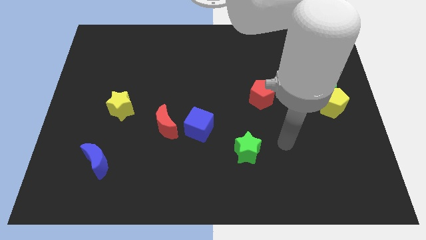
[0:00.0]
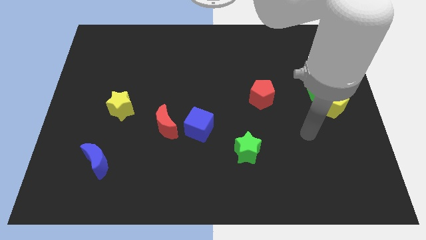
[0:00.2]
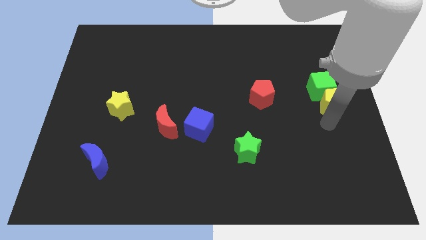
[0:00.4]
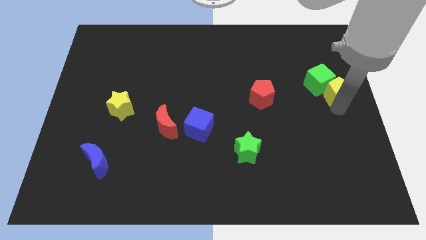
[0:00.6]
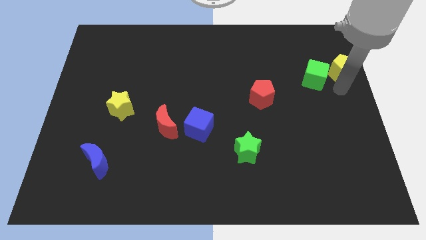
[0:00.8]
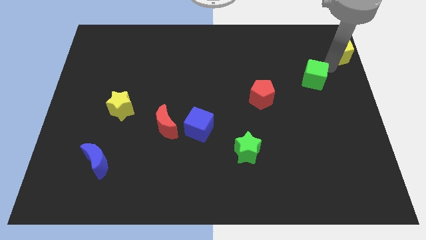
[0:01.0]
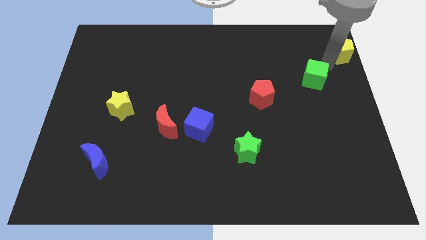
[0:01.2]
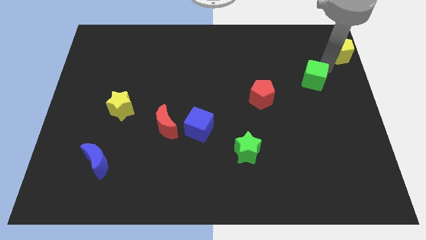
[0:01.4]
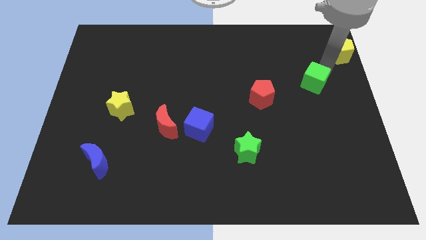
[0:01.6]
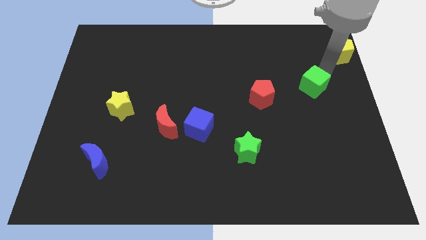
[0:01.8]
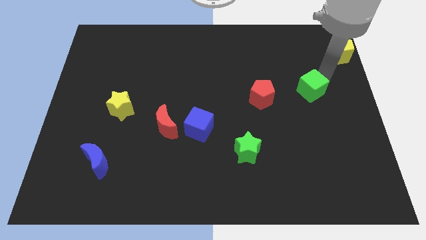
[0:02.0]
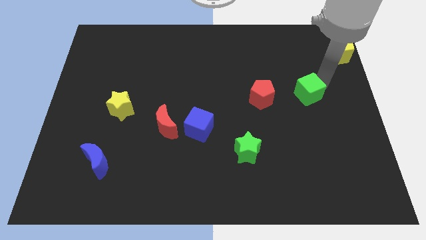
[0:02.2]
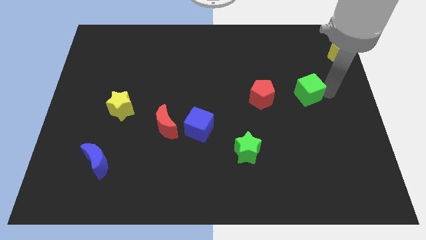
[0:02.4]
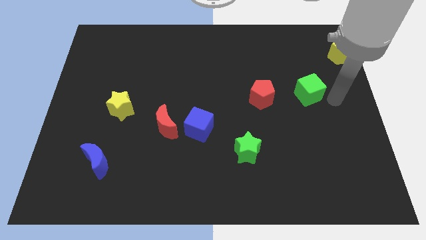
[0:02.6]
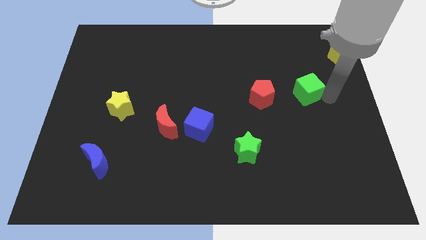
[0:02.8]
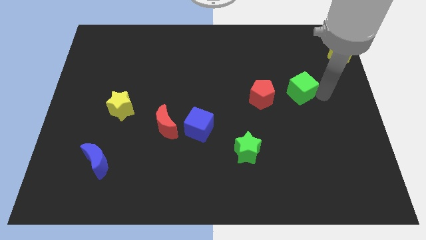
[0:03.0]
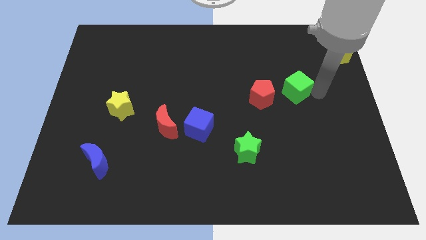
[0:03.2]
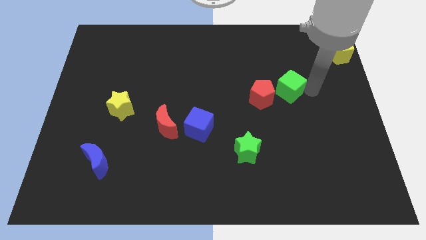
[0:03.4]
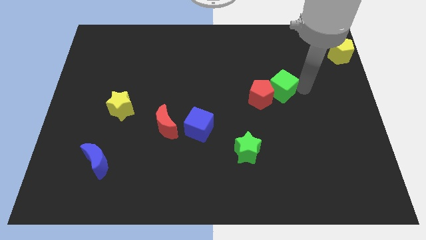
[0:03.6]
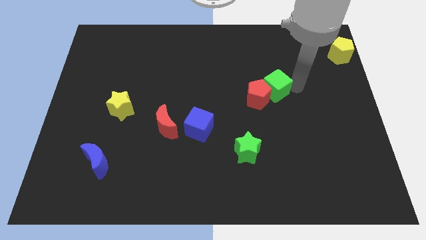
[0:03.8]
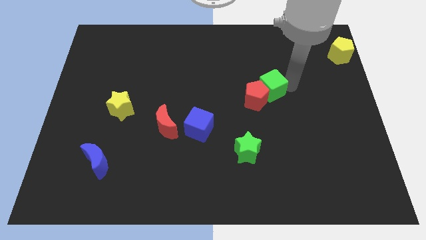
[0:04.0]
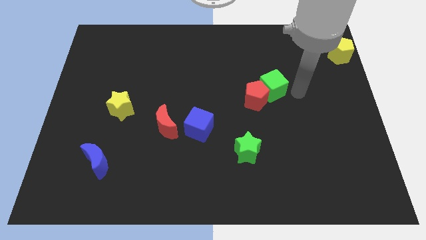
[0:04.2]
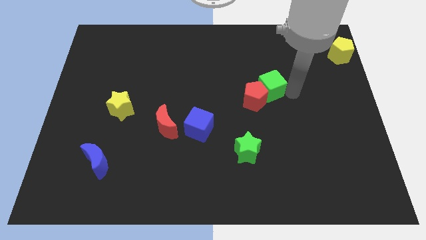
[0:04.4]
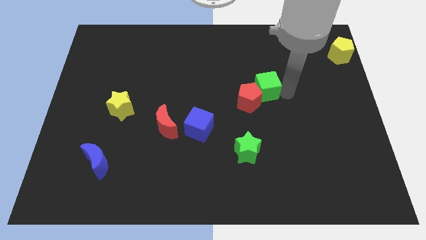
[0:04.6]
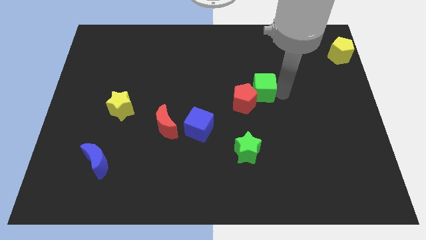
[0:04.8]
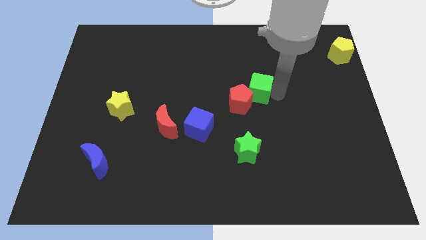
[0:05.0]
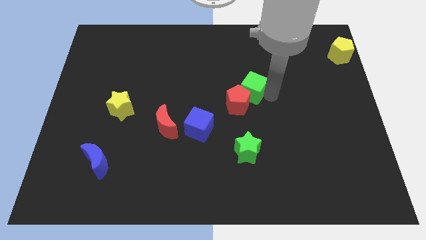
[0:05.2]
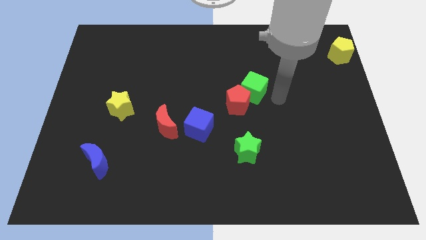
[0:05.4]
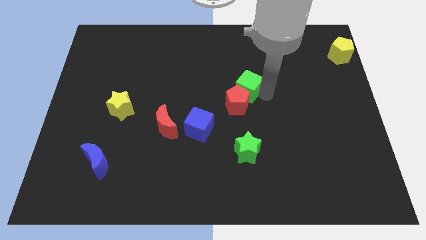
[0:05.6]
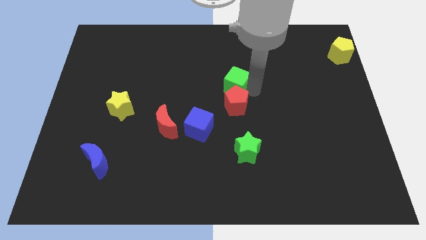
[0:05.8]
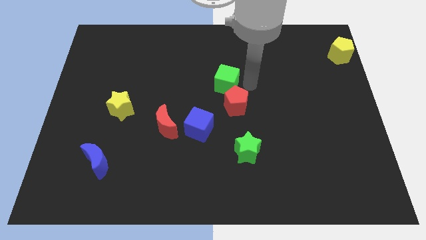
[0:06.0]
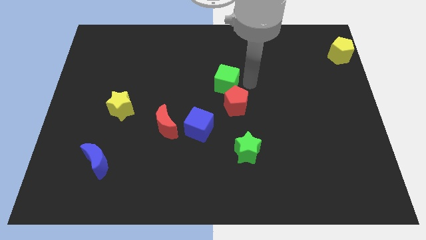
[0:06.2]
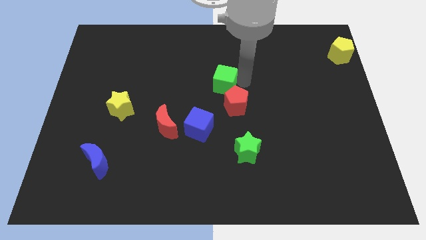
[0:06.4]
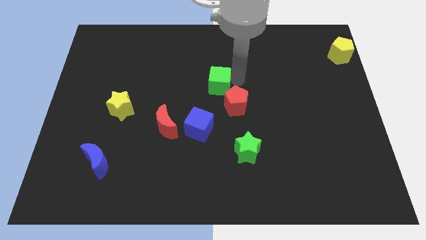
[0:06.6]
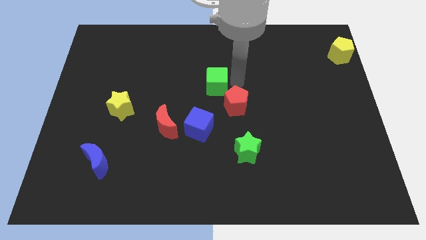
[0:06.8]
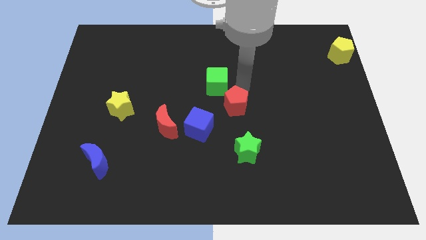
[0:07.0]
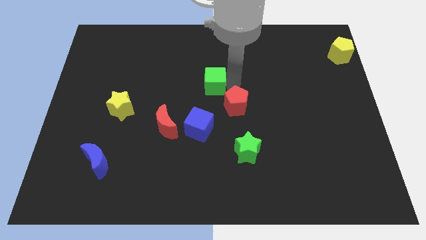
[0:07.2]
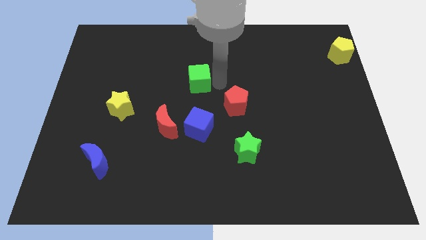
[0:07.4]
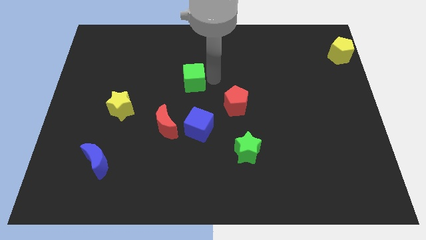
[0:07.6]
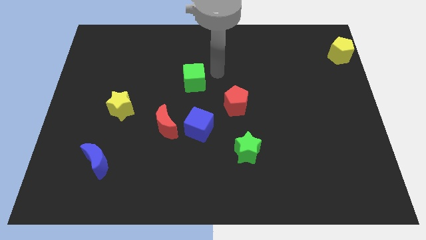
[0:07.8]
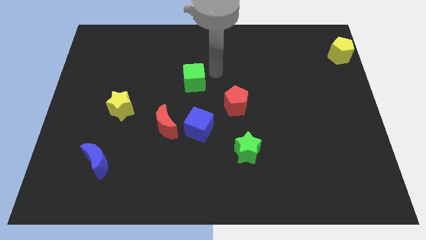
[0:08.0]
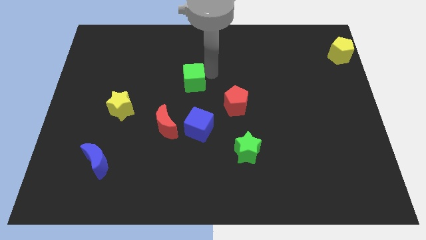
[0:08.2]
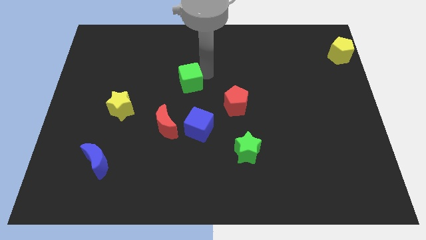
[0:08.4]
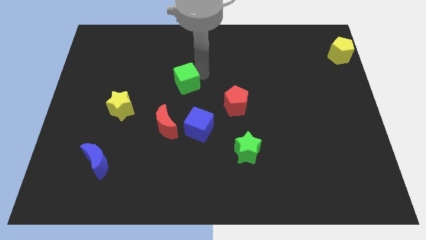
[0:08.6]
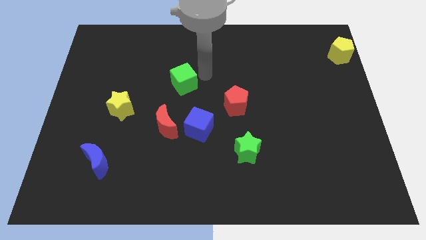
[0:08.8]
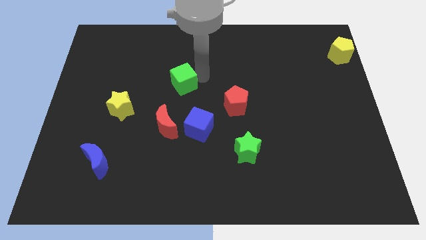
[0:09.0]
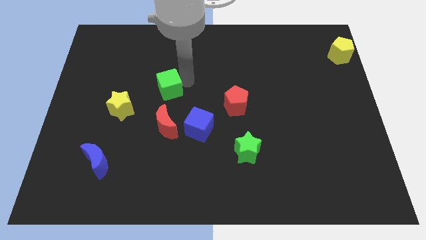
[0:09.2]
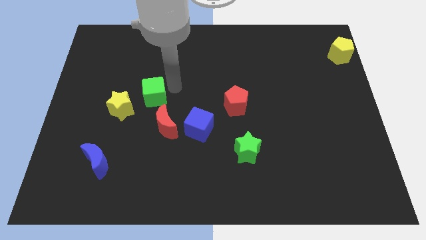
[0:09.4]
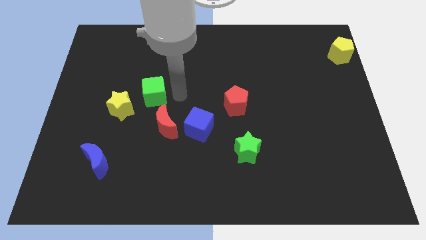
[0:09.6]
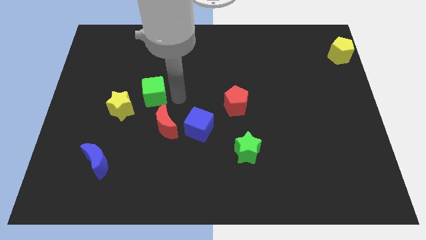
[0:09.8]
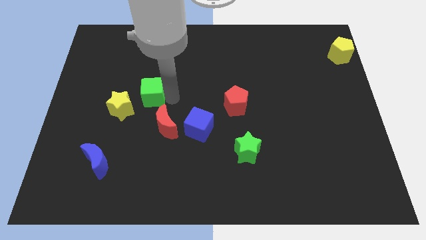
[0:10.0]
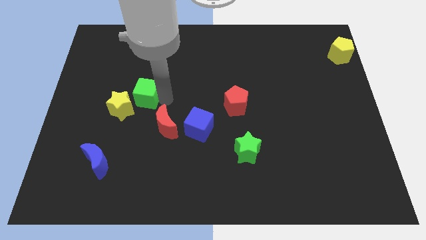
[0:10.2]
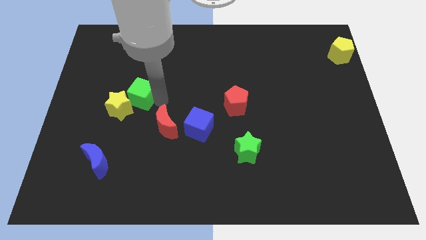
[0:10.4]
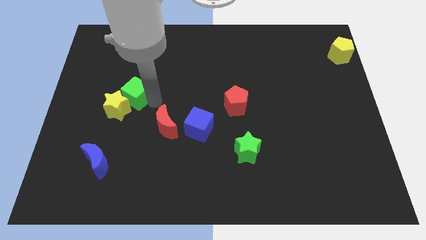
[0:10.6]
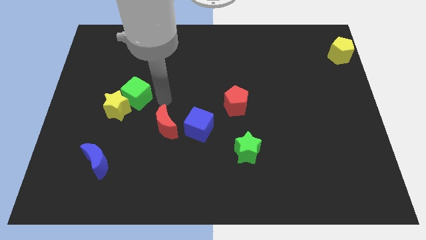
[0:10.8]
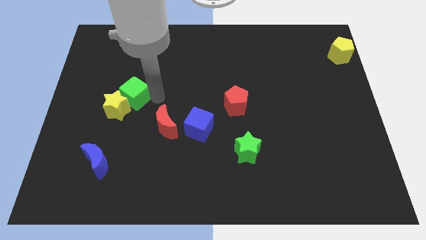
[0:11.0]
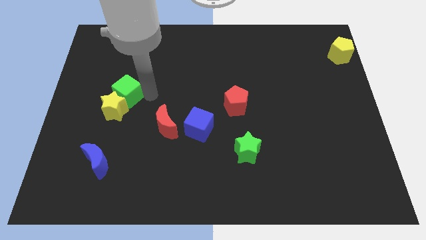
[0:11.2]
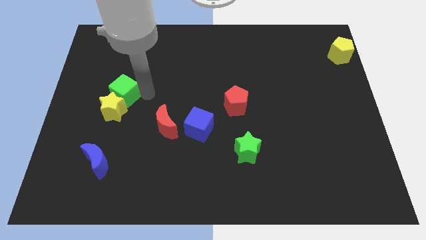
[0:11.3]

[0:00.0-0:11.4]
slide the green cube to the top left side of the yellow star

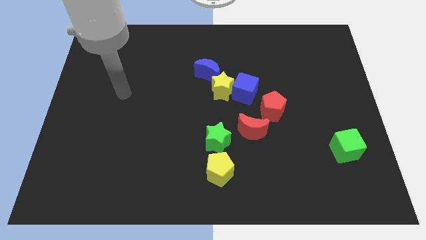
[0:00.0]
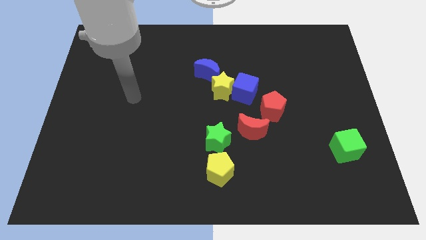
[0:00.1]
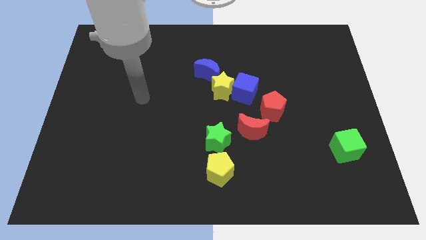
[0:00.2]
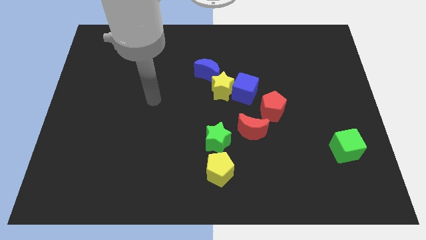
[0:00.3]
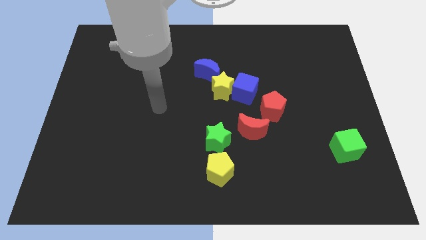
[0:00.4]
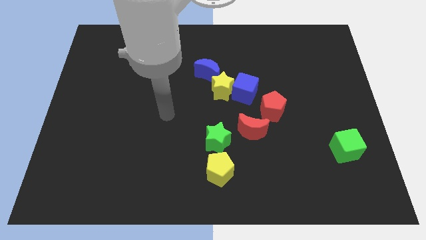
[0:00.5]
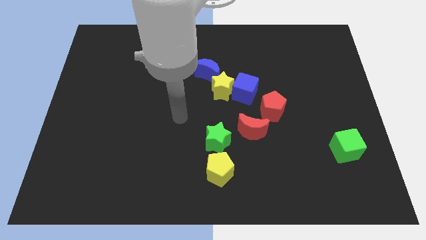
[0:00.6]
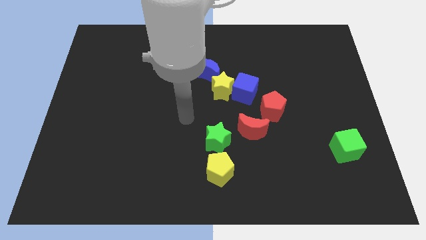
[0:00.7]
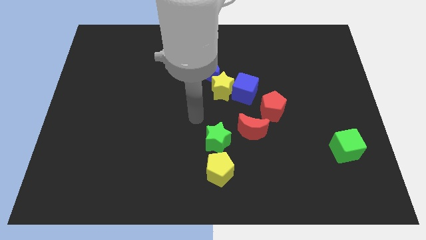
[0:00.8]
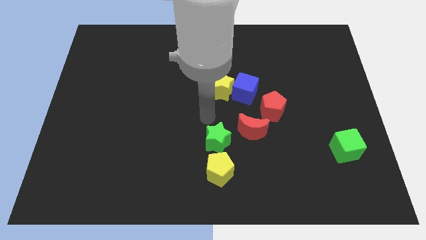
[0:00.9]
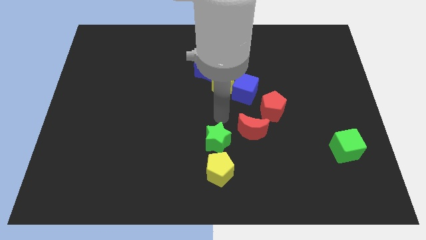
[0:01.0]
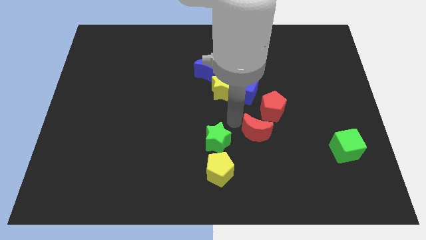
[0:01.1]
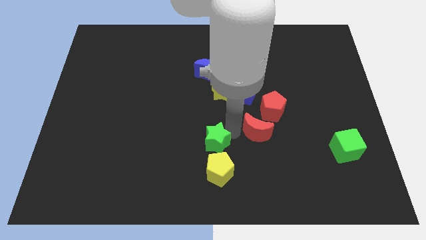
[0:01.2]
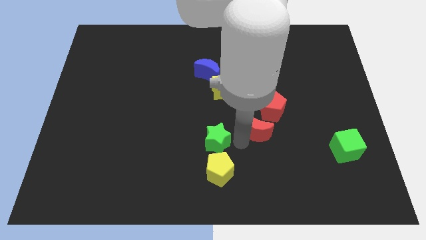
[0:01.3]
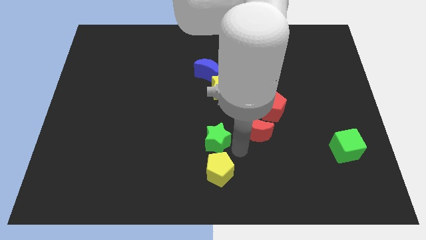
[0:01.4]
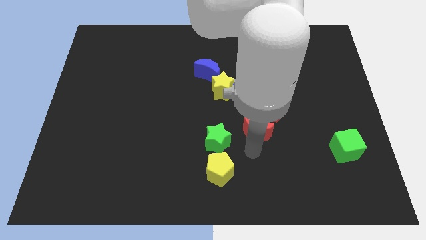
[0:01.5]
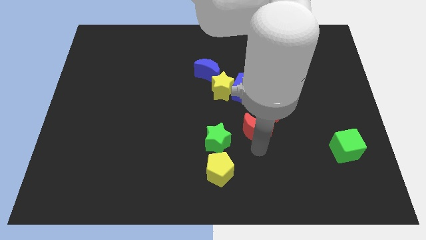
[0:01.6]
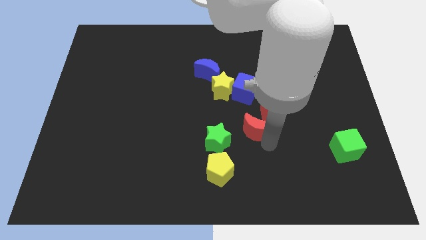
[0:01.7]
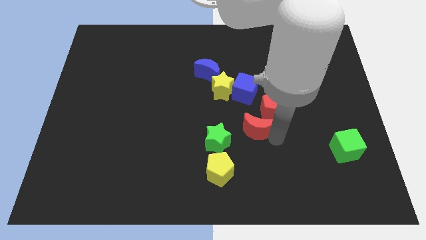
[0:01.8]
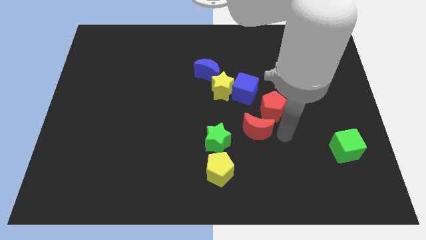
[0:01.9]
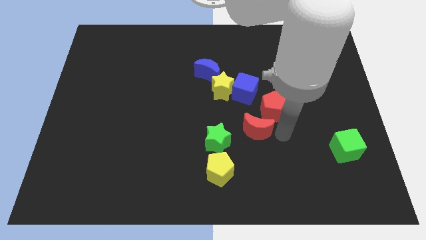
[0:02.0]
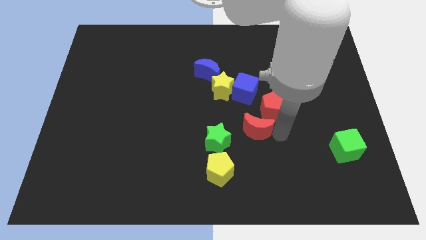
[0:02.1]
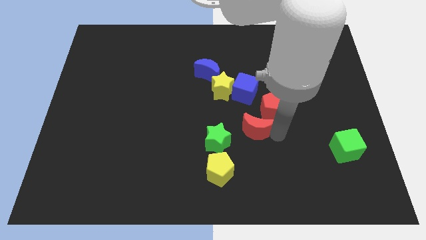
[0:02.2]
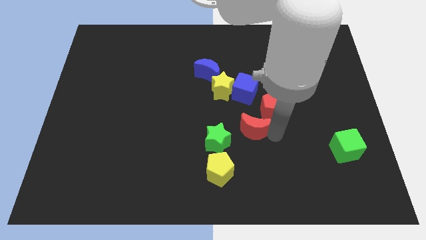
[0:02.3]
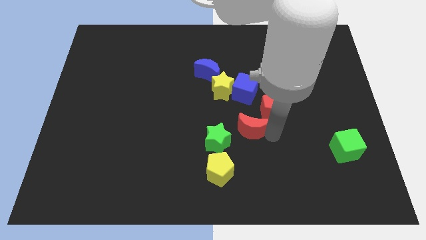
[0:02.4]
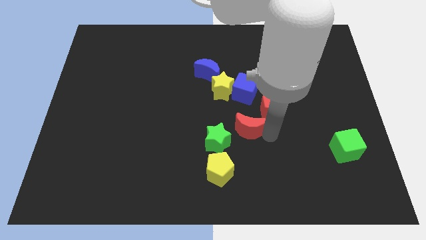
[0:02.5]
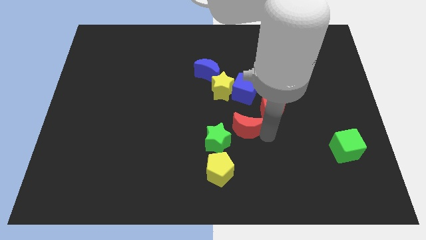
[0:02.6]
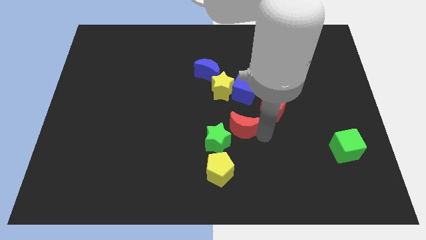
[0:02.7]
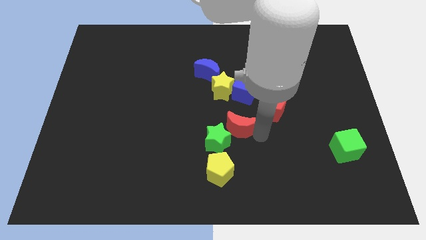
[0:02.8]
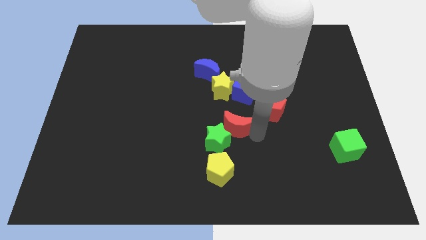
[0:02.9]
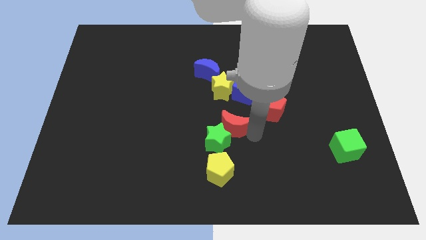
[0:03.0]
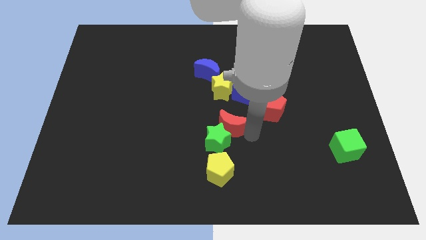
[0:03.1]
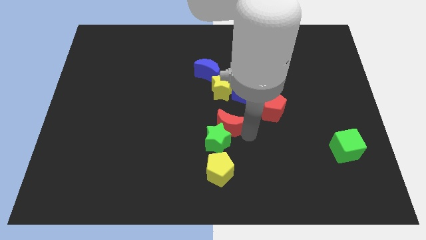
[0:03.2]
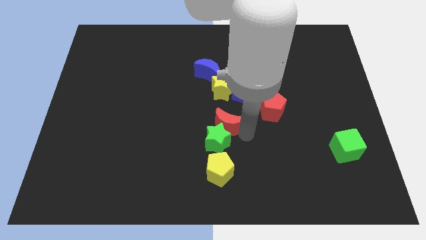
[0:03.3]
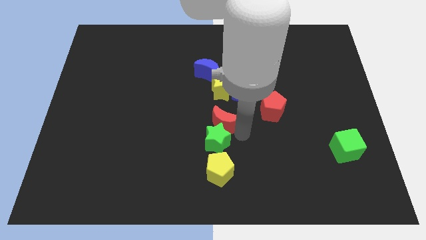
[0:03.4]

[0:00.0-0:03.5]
put the red moon to the top left of the green star
